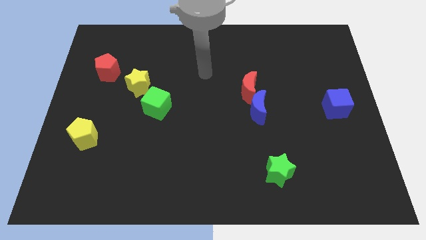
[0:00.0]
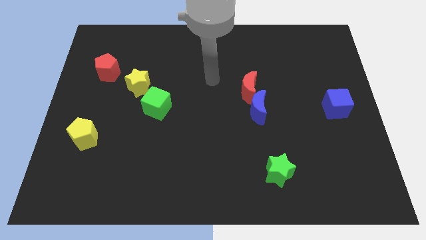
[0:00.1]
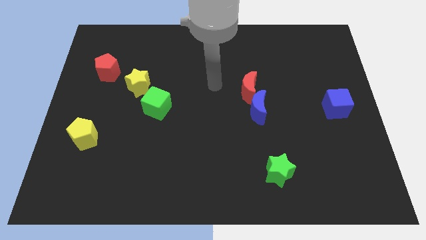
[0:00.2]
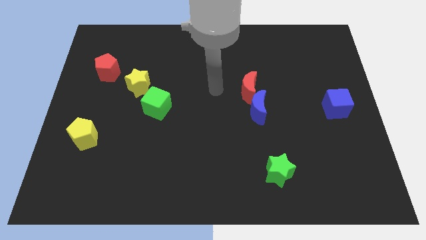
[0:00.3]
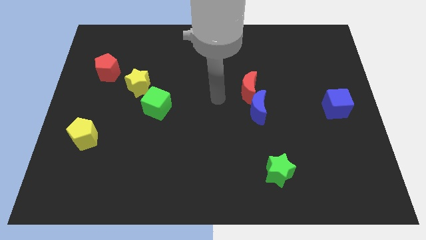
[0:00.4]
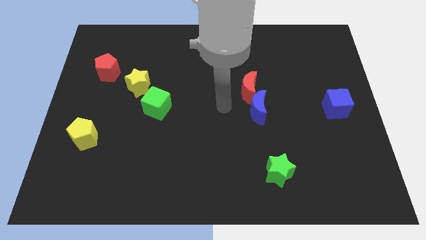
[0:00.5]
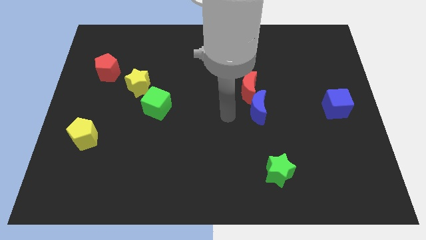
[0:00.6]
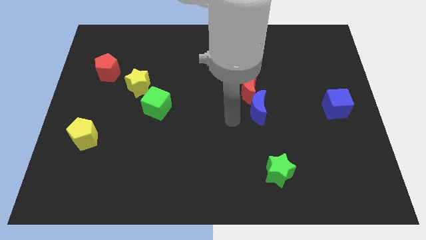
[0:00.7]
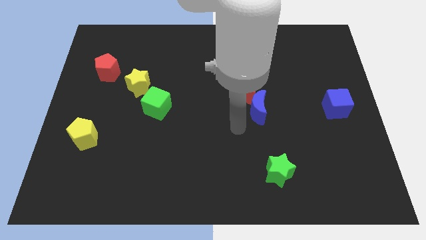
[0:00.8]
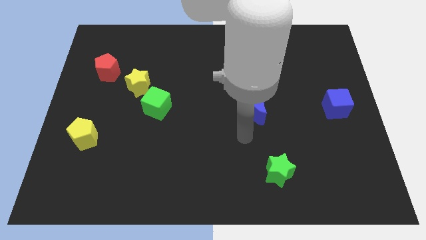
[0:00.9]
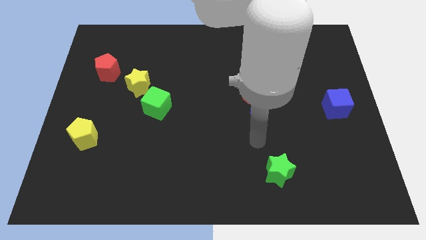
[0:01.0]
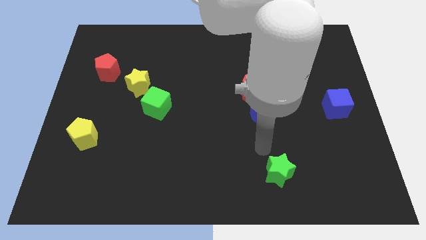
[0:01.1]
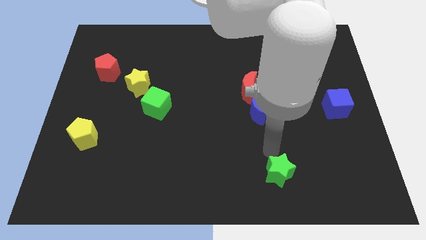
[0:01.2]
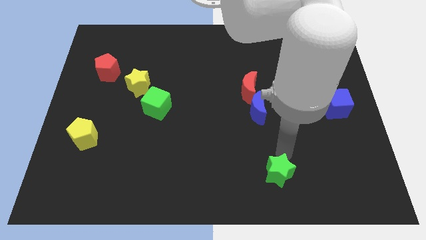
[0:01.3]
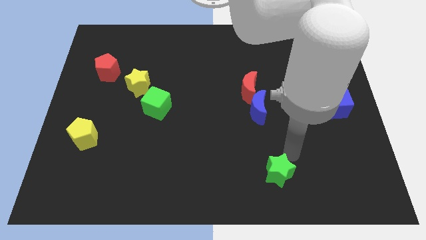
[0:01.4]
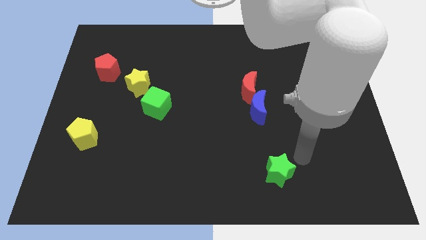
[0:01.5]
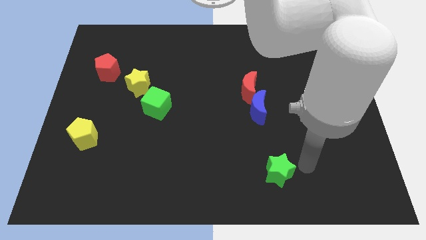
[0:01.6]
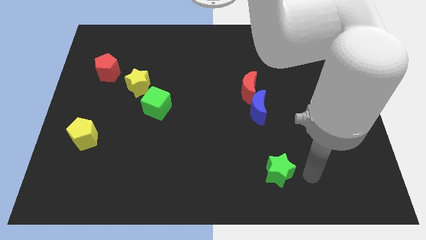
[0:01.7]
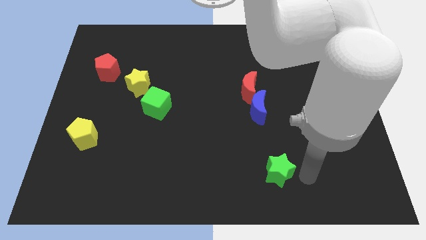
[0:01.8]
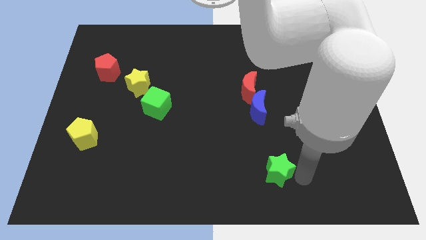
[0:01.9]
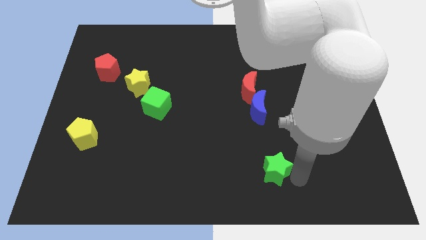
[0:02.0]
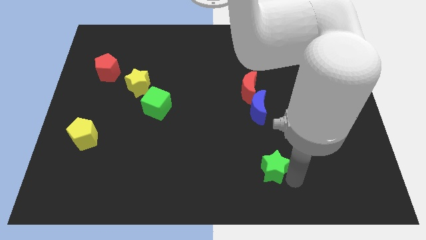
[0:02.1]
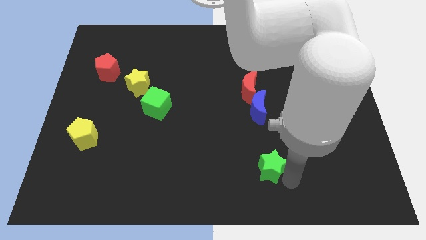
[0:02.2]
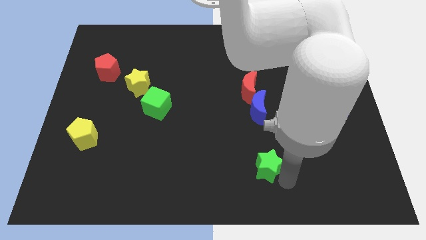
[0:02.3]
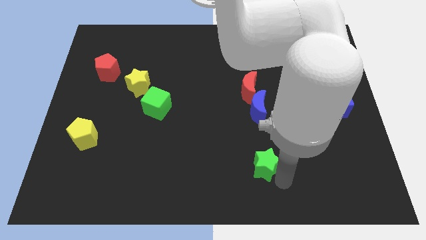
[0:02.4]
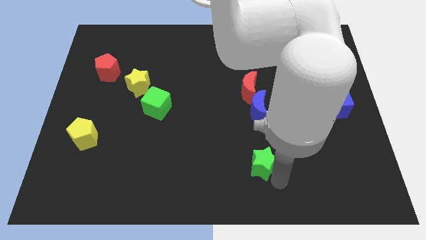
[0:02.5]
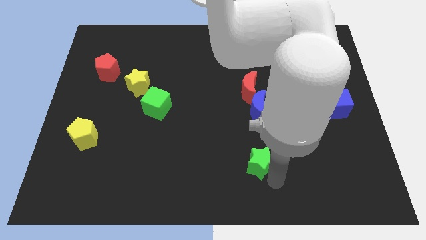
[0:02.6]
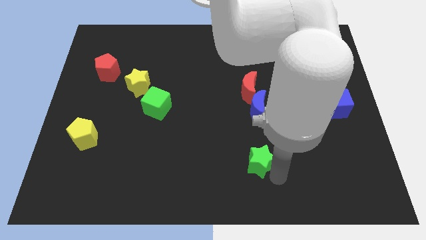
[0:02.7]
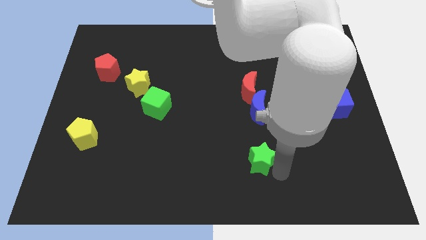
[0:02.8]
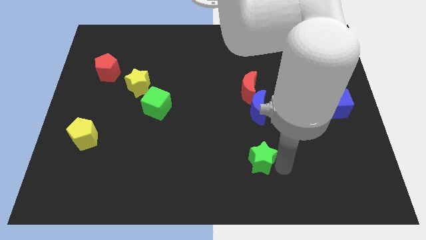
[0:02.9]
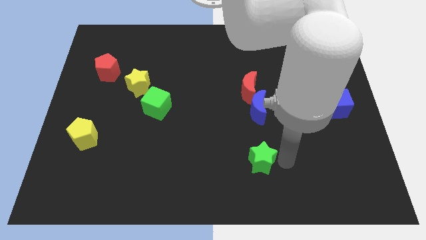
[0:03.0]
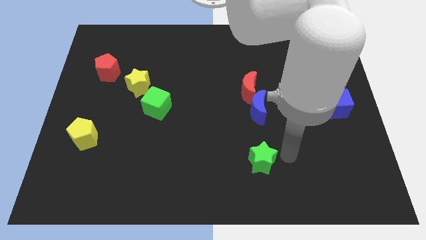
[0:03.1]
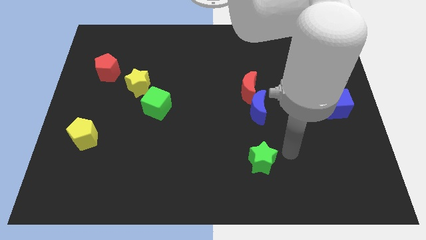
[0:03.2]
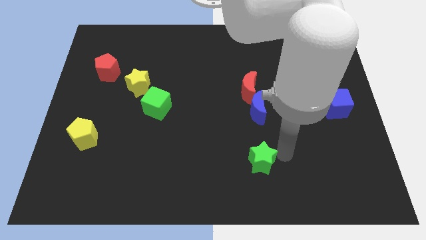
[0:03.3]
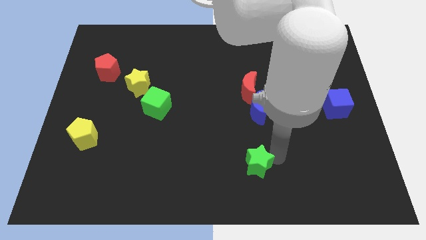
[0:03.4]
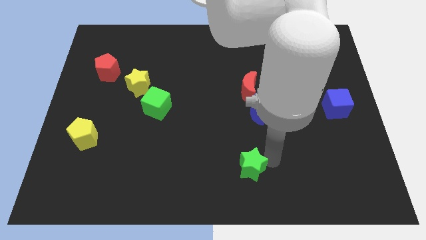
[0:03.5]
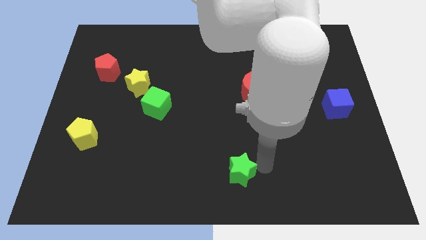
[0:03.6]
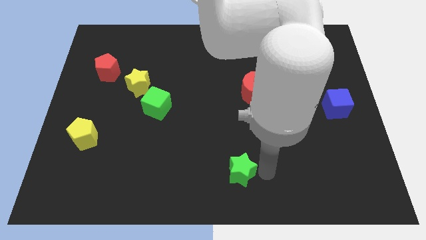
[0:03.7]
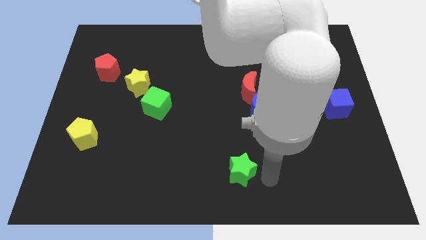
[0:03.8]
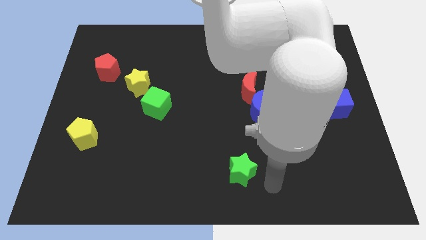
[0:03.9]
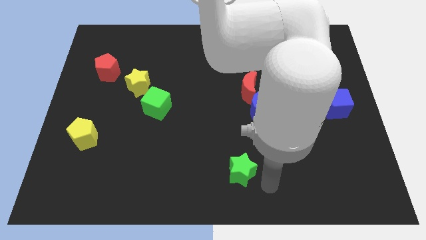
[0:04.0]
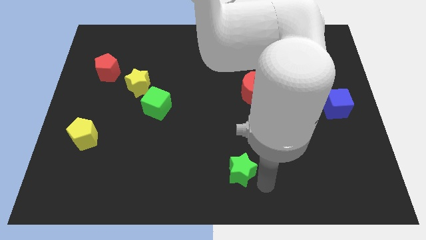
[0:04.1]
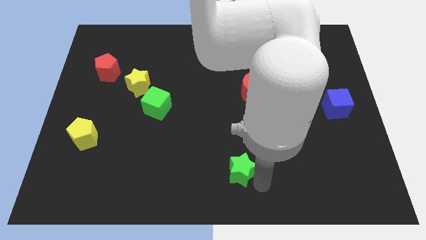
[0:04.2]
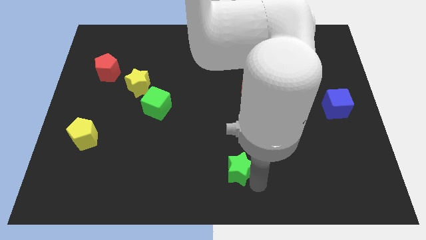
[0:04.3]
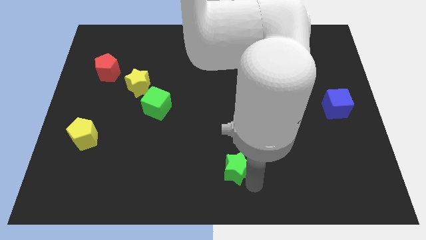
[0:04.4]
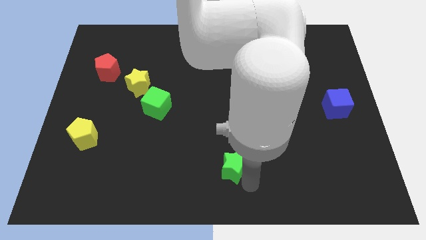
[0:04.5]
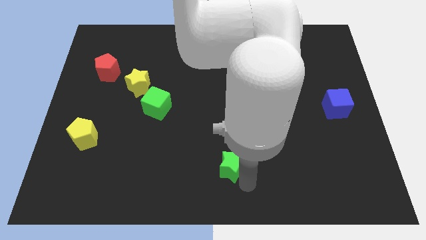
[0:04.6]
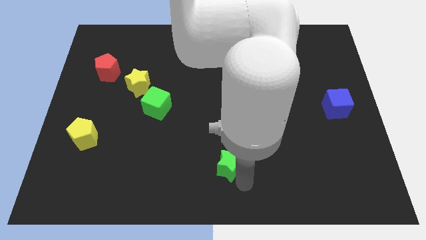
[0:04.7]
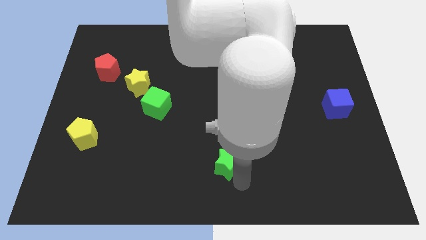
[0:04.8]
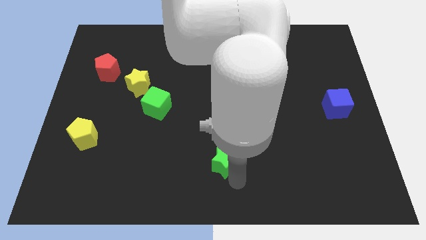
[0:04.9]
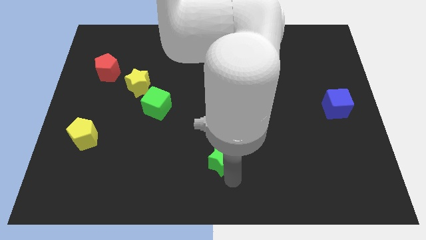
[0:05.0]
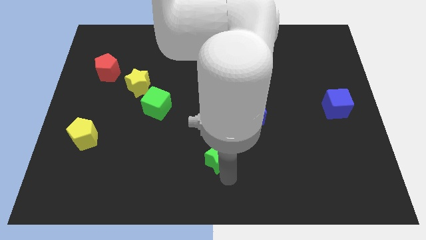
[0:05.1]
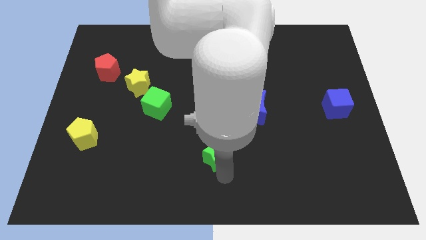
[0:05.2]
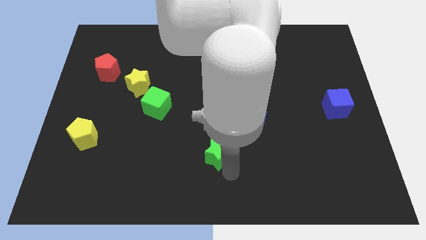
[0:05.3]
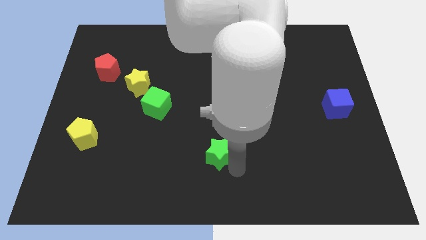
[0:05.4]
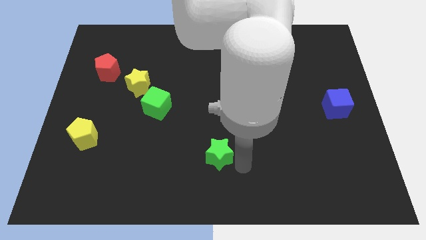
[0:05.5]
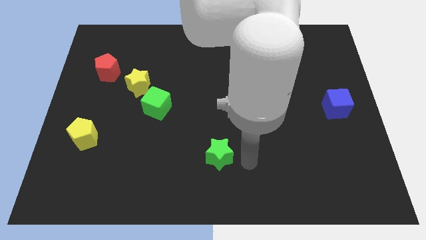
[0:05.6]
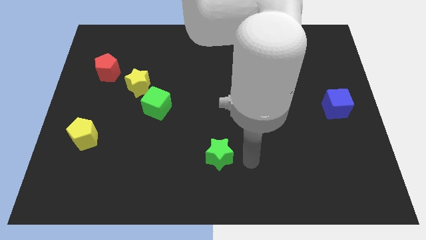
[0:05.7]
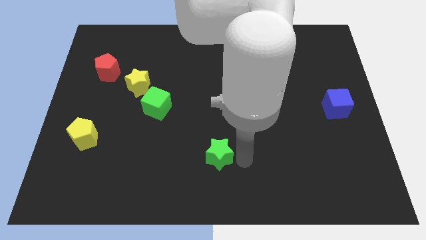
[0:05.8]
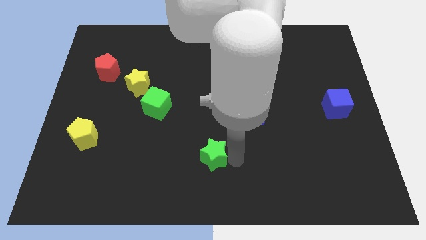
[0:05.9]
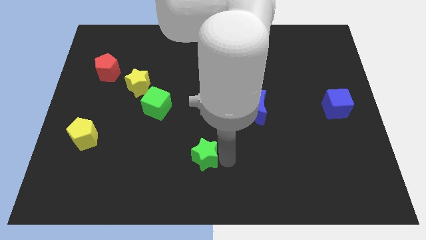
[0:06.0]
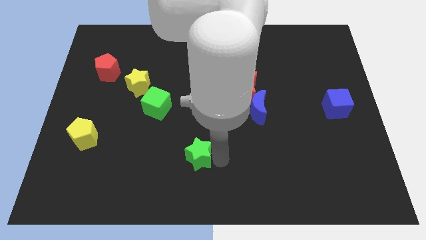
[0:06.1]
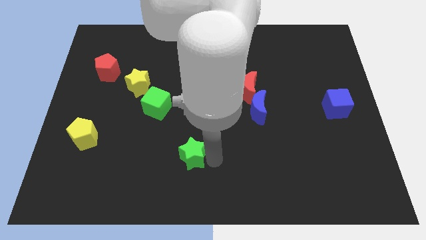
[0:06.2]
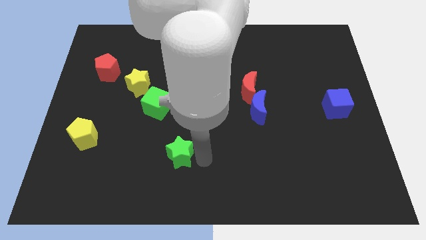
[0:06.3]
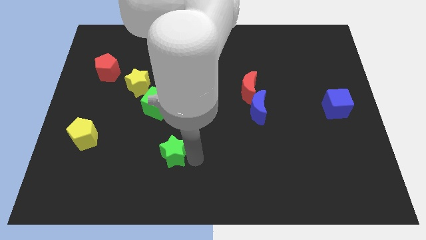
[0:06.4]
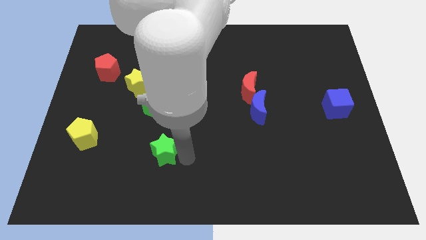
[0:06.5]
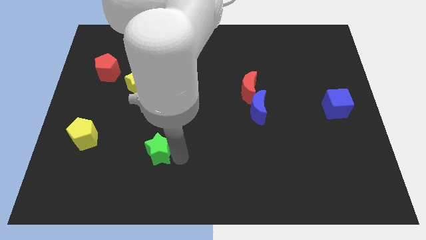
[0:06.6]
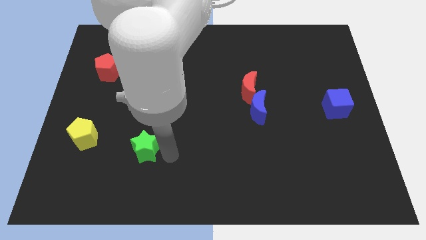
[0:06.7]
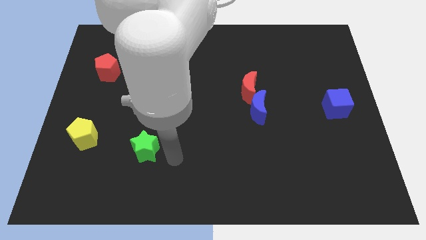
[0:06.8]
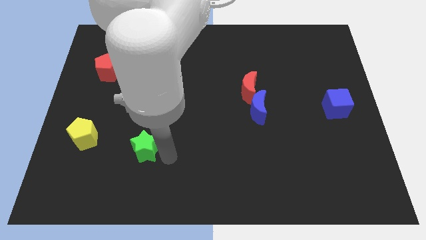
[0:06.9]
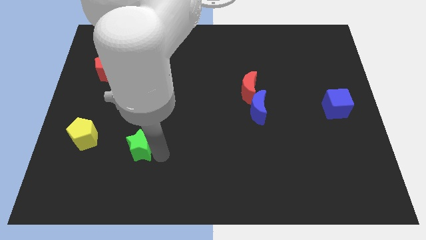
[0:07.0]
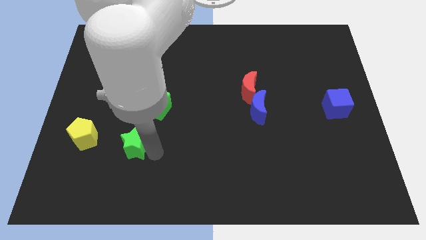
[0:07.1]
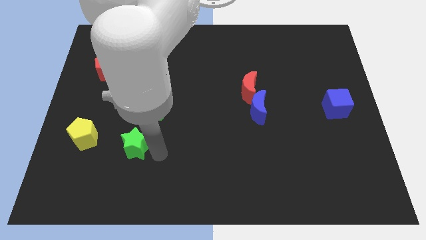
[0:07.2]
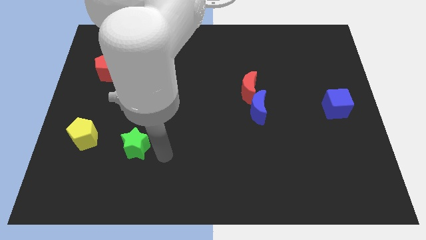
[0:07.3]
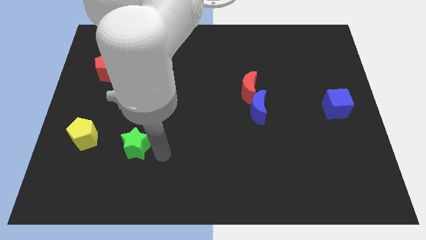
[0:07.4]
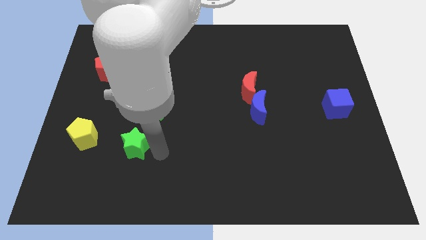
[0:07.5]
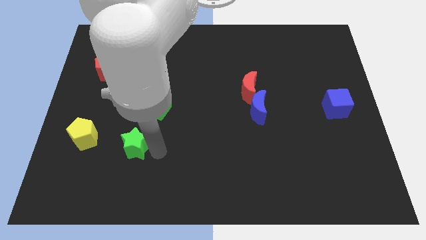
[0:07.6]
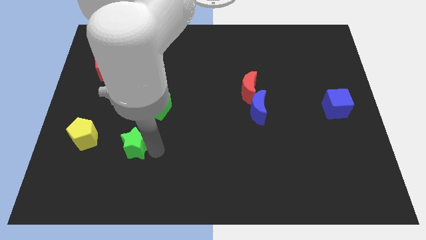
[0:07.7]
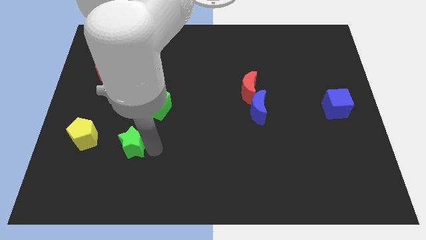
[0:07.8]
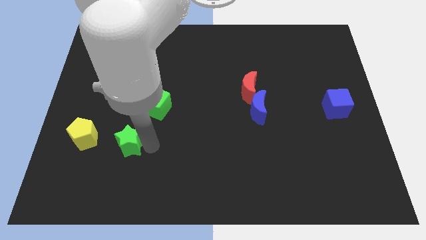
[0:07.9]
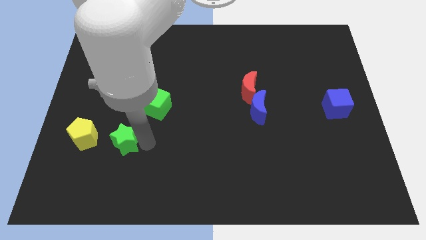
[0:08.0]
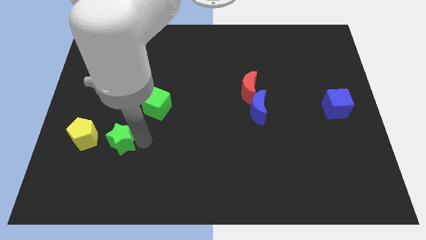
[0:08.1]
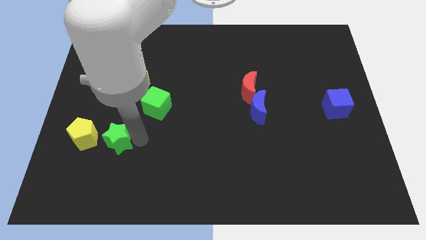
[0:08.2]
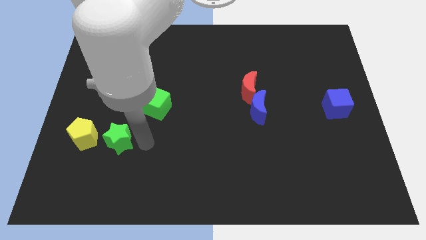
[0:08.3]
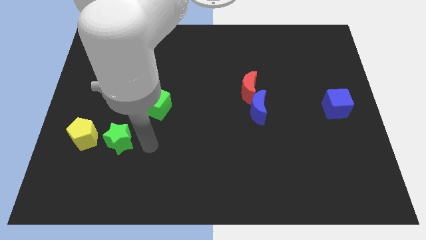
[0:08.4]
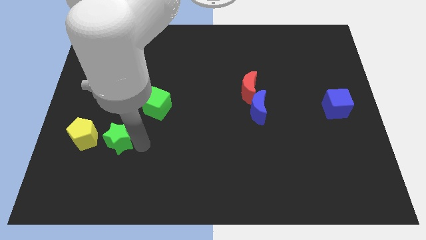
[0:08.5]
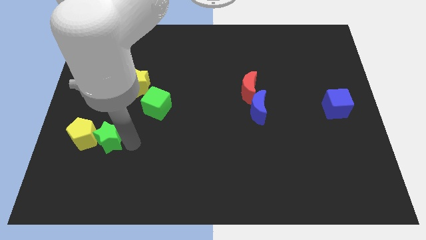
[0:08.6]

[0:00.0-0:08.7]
slide the green star towards the yellow pentagon
